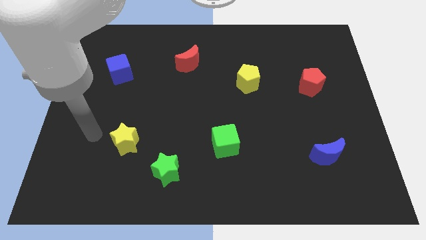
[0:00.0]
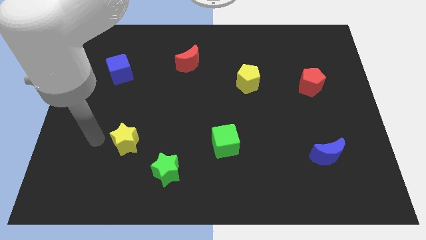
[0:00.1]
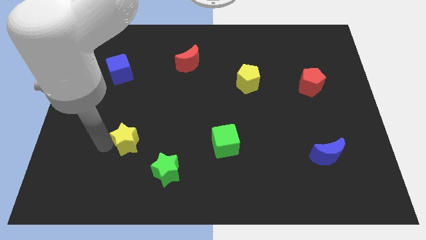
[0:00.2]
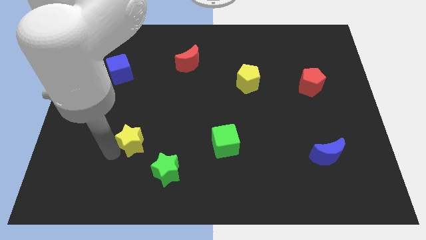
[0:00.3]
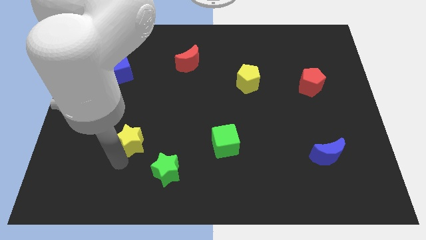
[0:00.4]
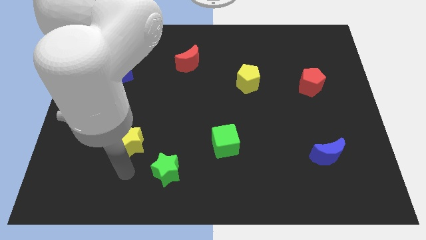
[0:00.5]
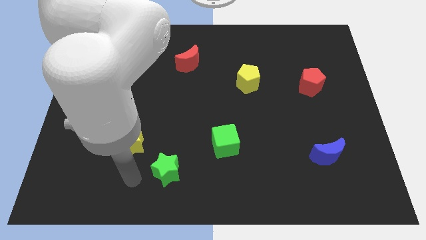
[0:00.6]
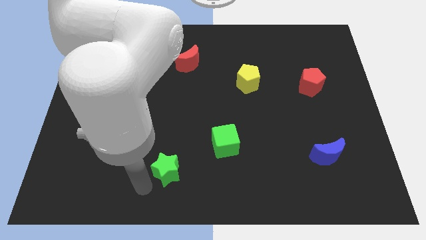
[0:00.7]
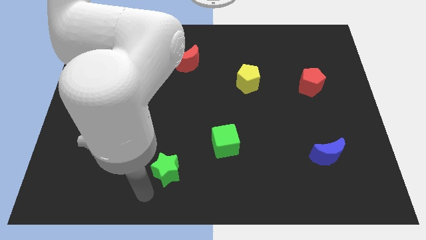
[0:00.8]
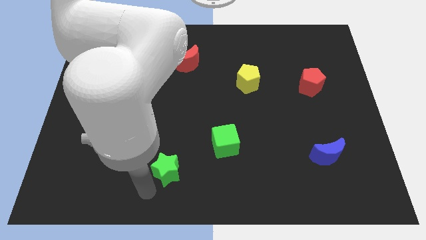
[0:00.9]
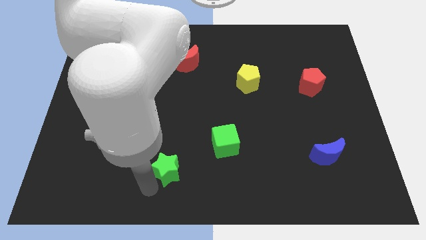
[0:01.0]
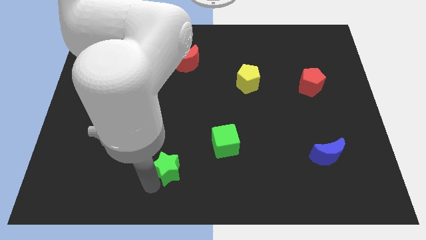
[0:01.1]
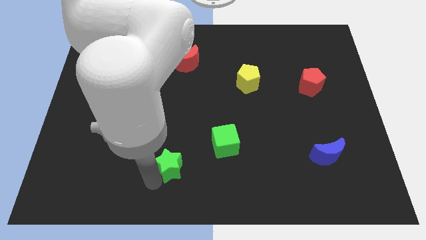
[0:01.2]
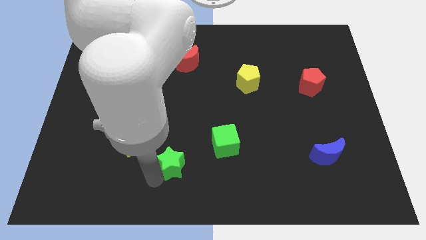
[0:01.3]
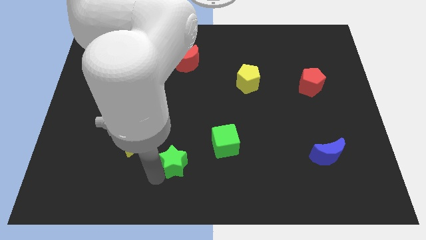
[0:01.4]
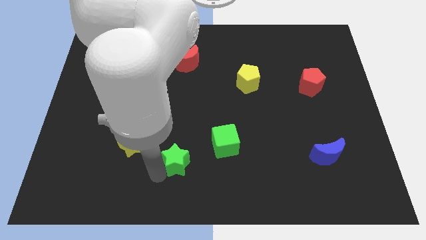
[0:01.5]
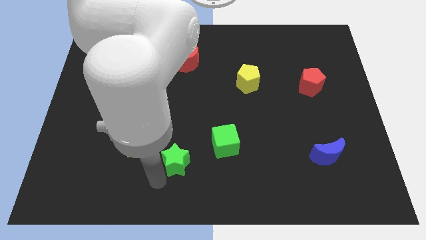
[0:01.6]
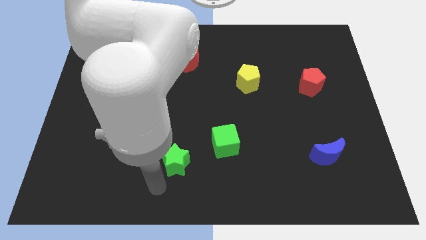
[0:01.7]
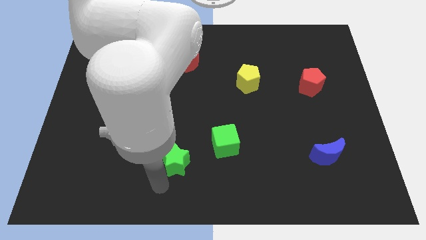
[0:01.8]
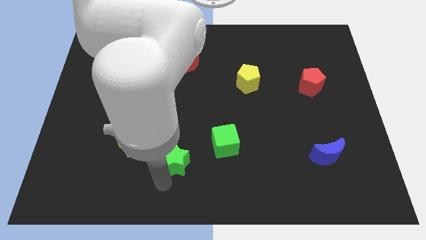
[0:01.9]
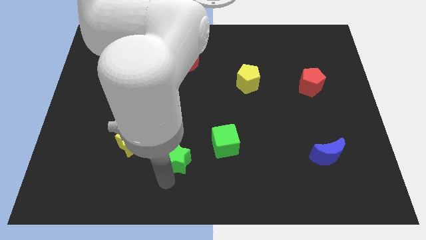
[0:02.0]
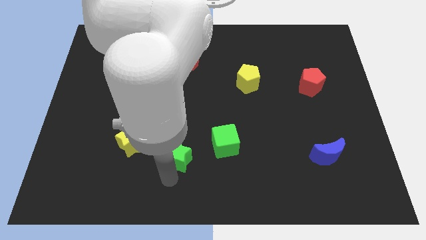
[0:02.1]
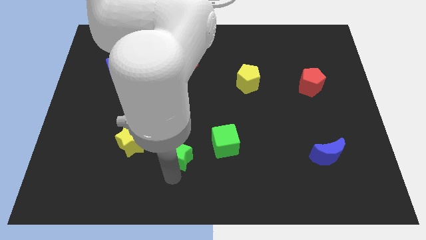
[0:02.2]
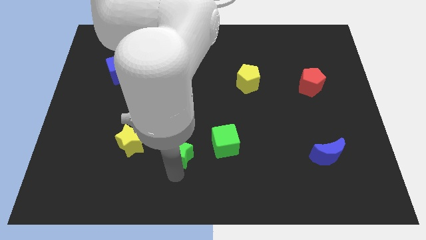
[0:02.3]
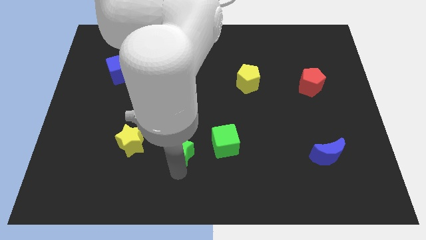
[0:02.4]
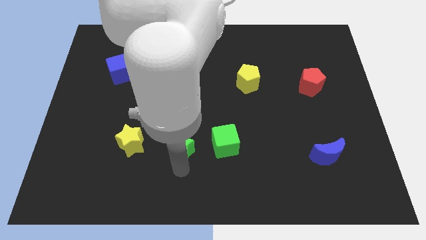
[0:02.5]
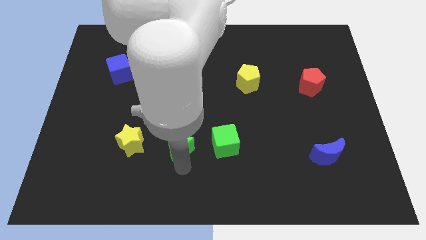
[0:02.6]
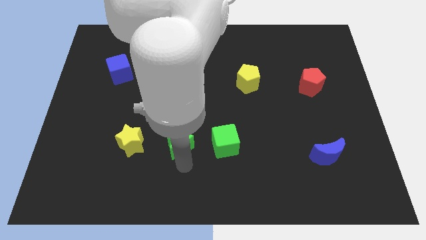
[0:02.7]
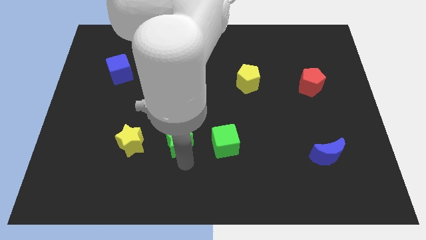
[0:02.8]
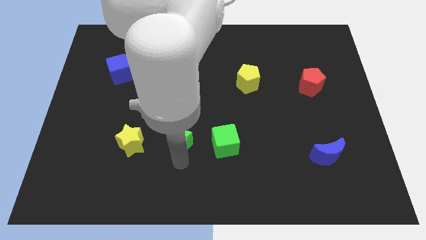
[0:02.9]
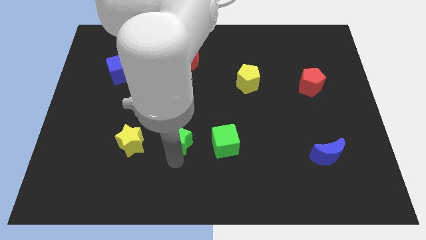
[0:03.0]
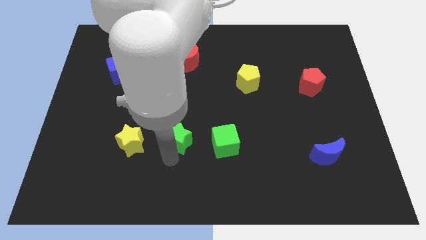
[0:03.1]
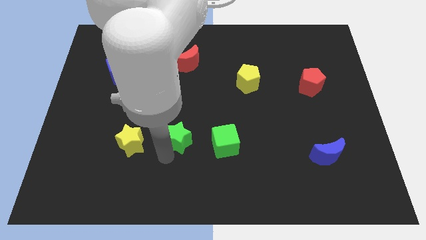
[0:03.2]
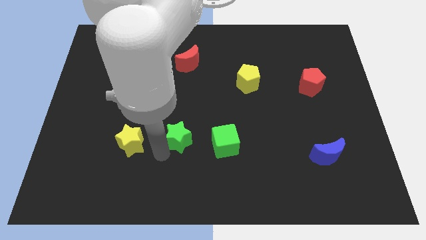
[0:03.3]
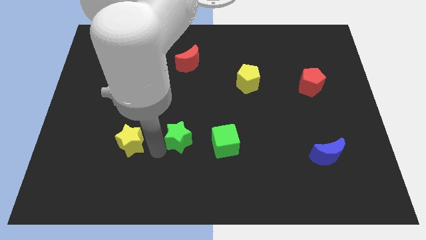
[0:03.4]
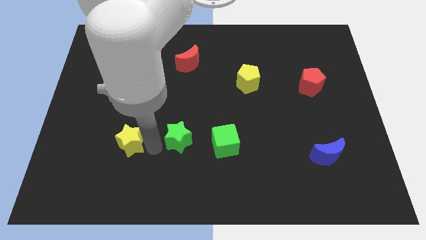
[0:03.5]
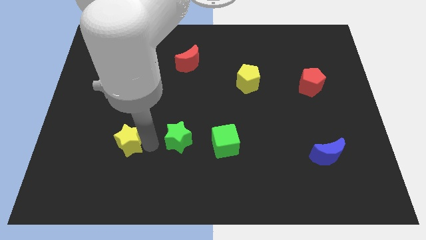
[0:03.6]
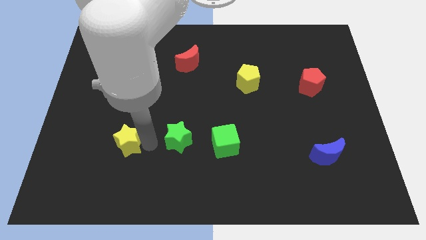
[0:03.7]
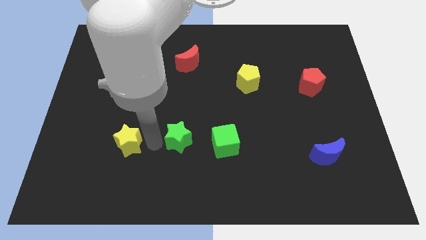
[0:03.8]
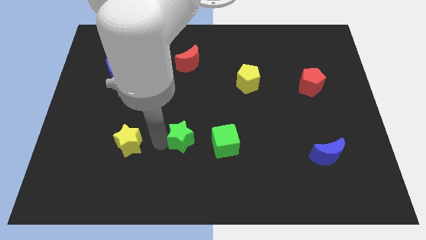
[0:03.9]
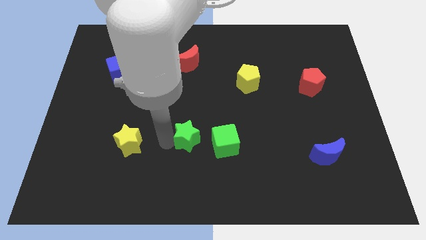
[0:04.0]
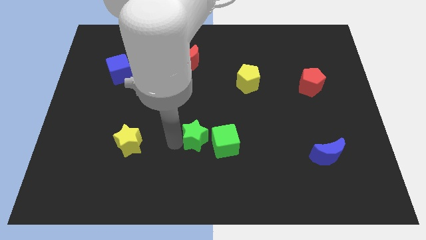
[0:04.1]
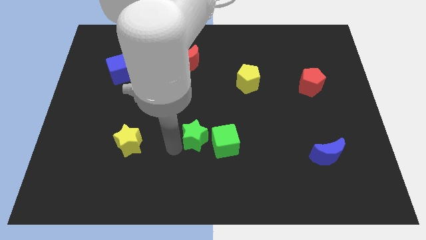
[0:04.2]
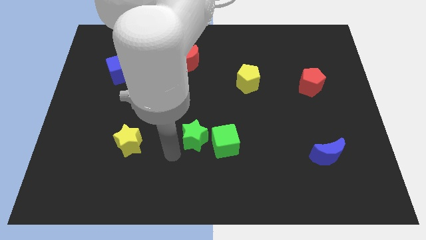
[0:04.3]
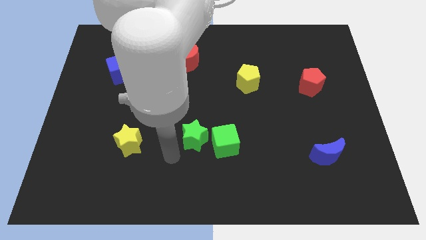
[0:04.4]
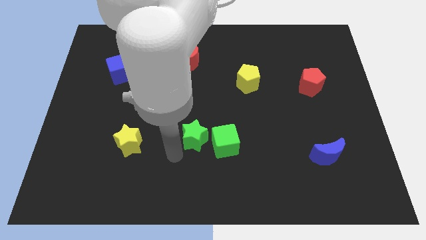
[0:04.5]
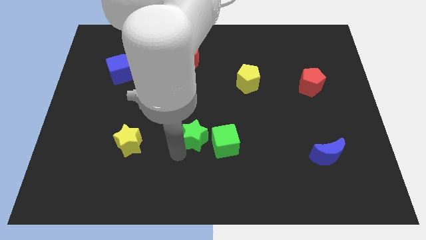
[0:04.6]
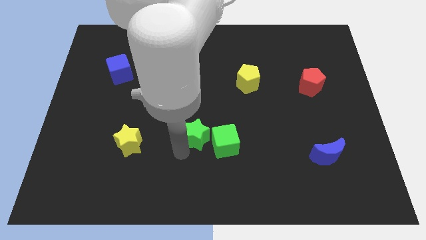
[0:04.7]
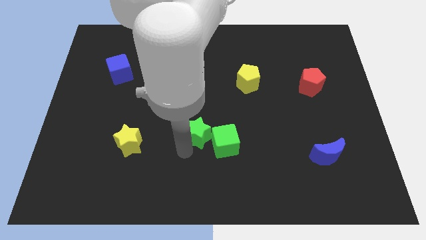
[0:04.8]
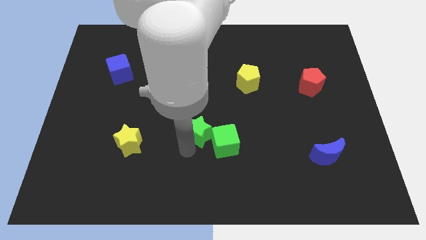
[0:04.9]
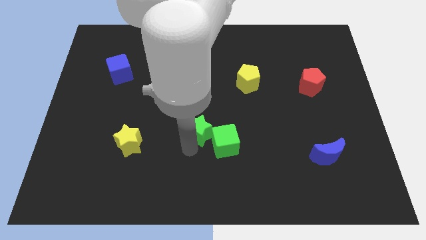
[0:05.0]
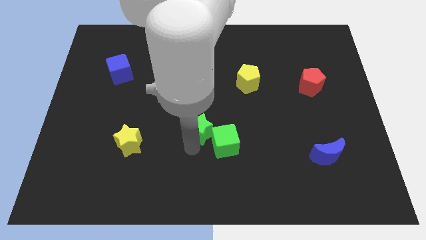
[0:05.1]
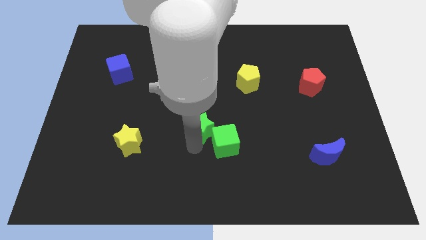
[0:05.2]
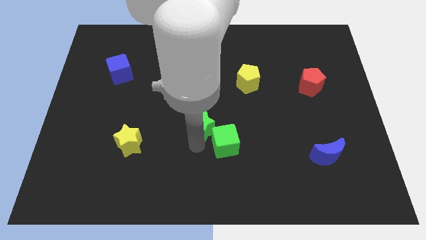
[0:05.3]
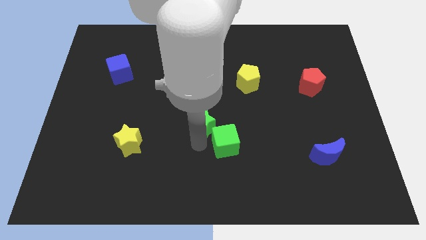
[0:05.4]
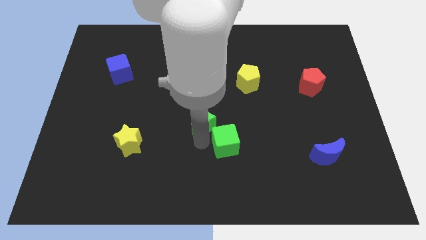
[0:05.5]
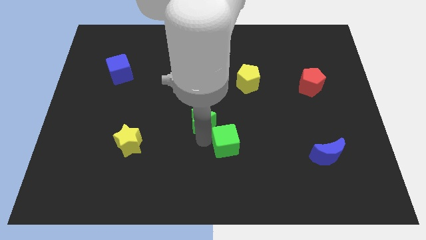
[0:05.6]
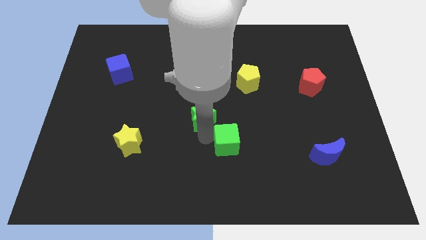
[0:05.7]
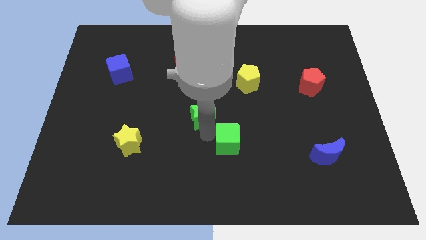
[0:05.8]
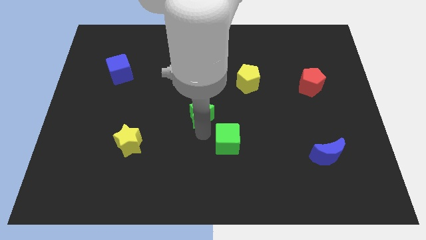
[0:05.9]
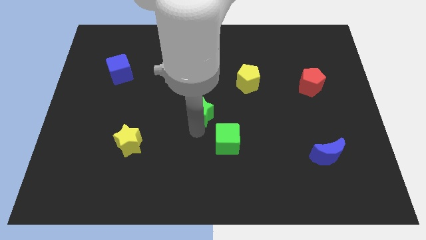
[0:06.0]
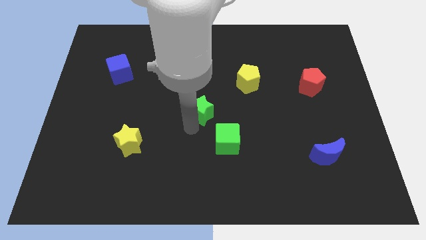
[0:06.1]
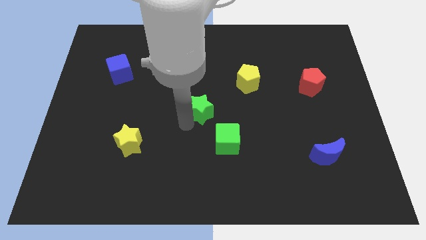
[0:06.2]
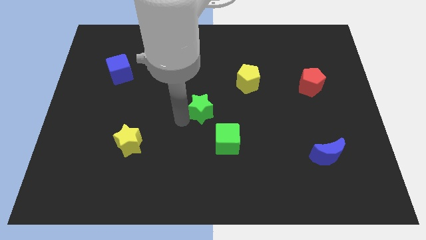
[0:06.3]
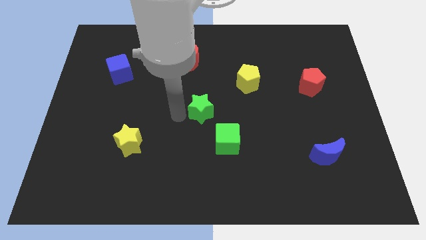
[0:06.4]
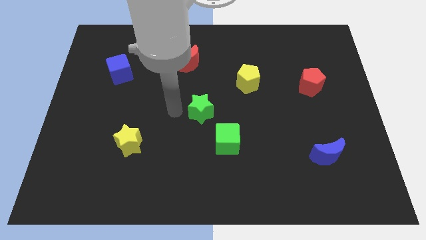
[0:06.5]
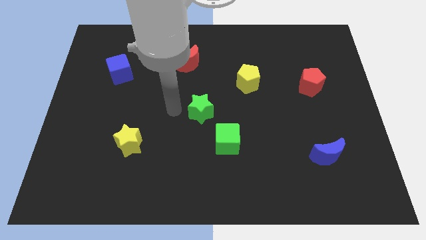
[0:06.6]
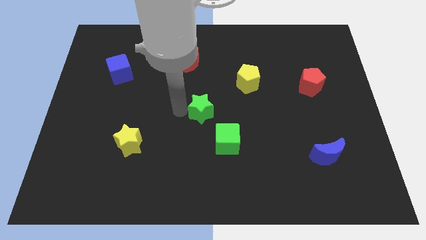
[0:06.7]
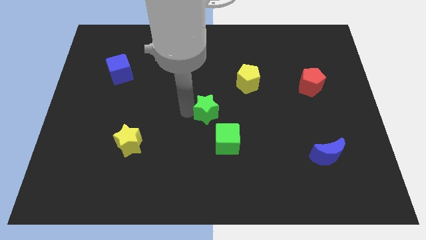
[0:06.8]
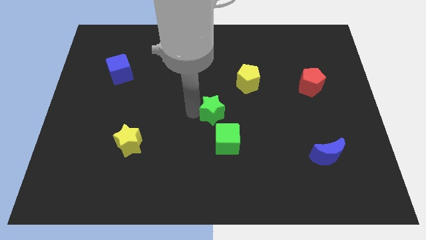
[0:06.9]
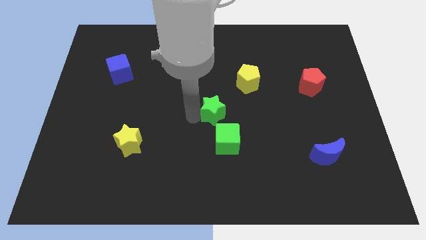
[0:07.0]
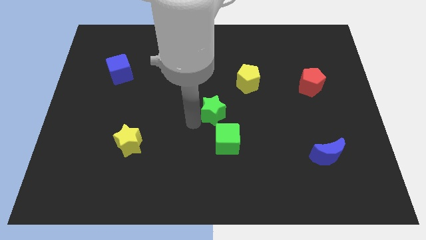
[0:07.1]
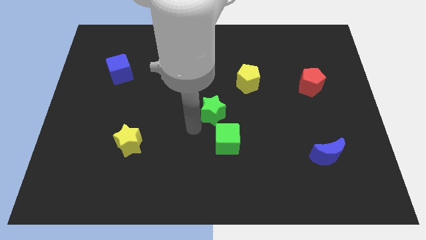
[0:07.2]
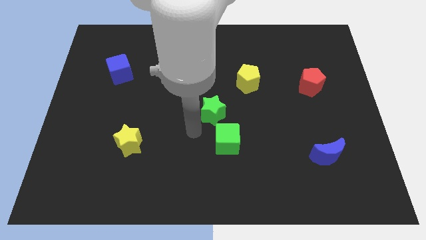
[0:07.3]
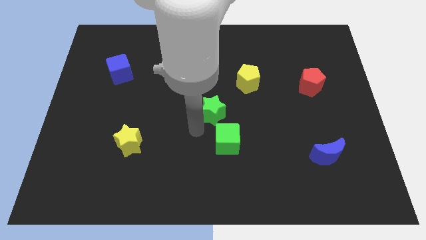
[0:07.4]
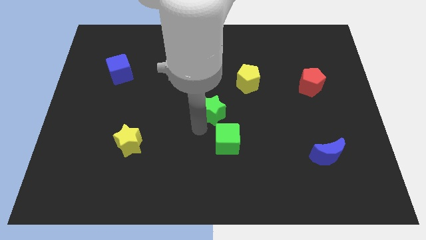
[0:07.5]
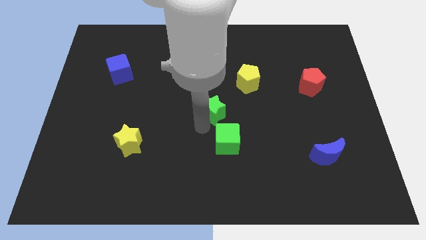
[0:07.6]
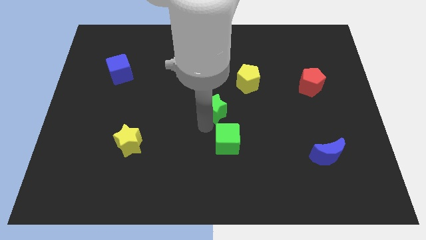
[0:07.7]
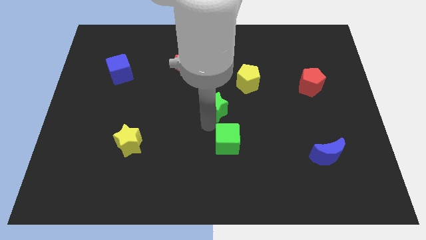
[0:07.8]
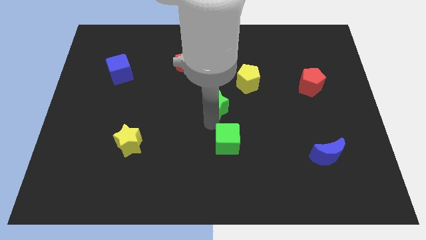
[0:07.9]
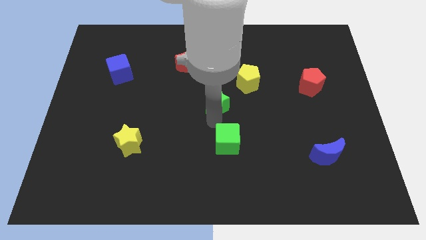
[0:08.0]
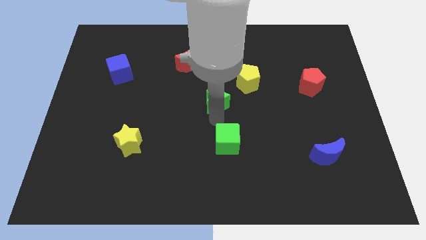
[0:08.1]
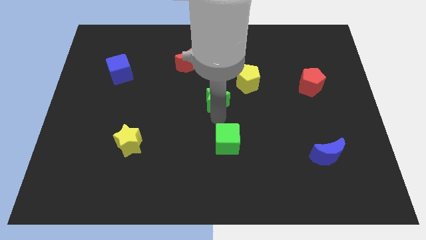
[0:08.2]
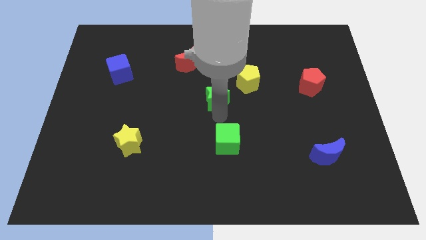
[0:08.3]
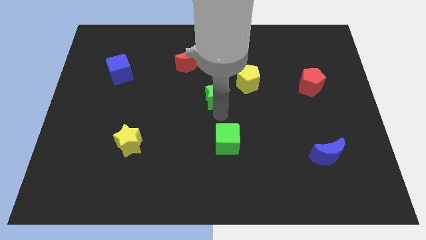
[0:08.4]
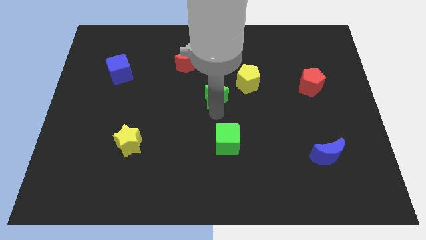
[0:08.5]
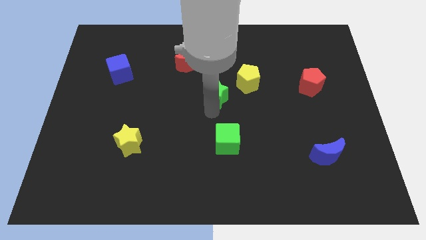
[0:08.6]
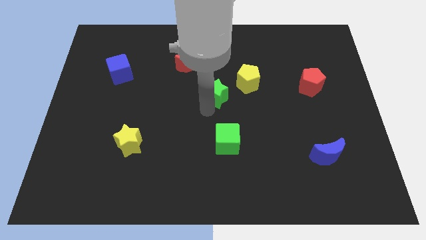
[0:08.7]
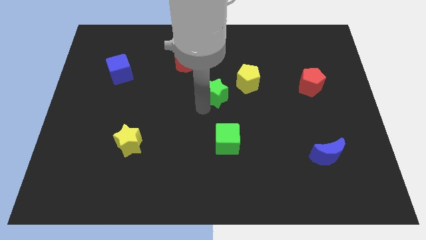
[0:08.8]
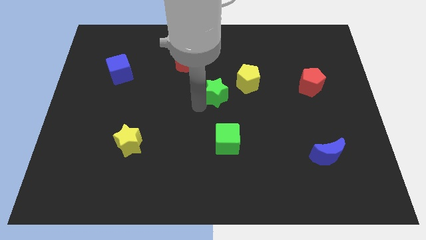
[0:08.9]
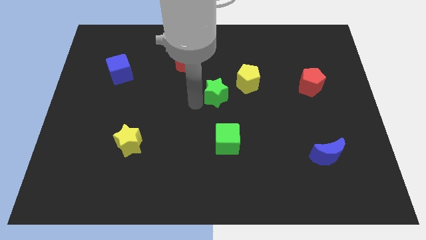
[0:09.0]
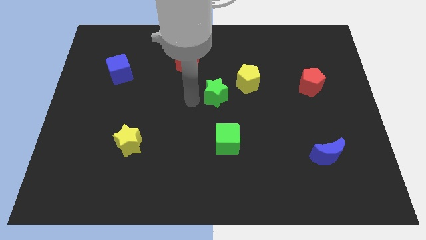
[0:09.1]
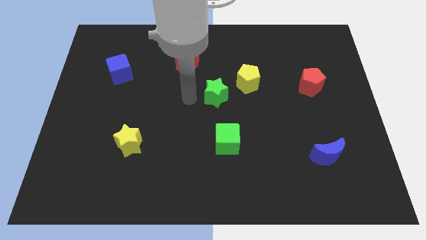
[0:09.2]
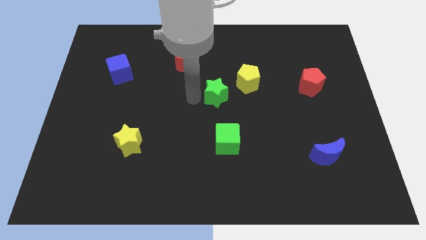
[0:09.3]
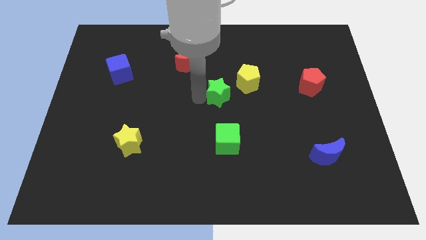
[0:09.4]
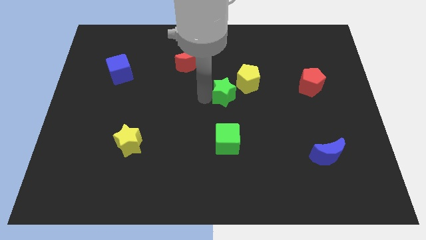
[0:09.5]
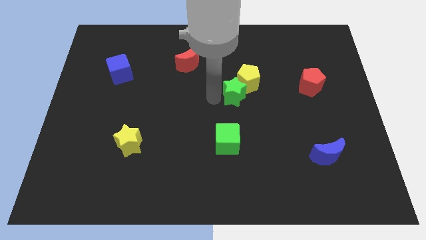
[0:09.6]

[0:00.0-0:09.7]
slide the green star close to the yellow pentagon
